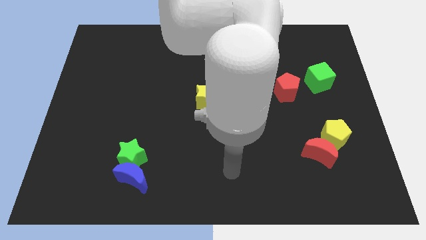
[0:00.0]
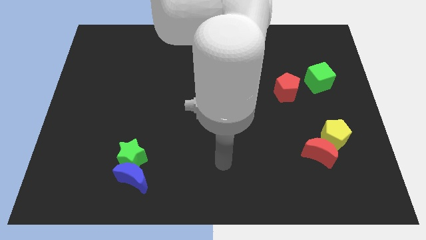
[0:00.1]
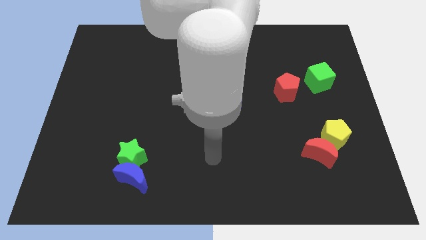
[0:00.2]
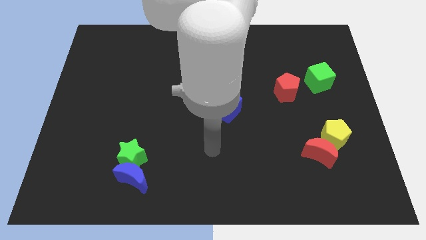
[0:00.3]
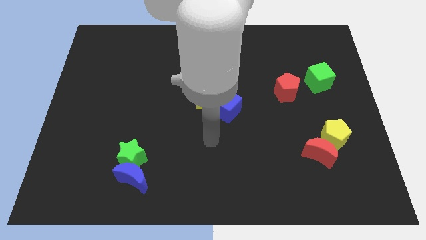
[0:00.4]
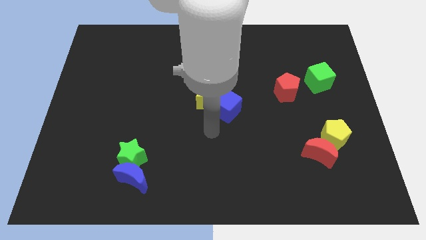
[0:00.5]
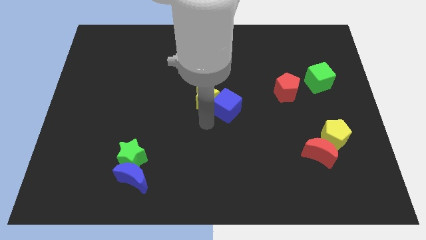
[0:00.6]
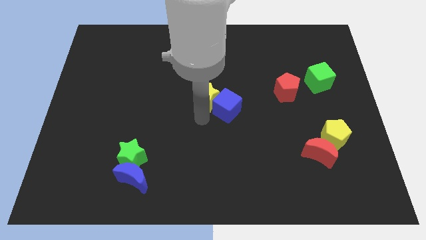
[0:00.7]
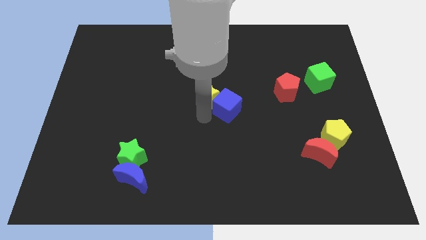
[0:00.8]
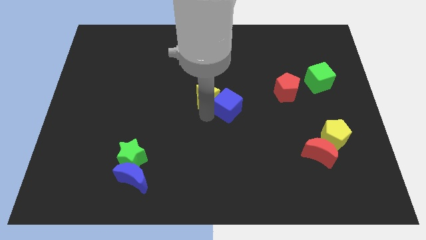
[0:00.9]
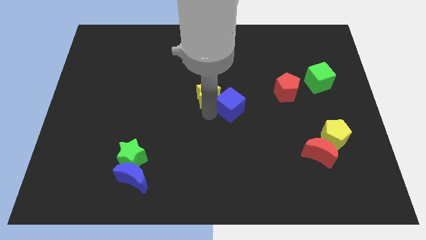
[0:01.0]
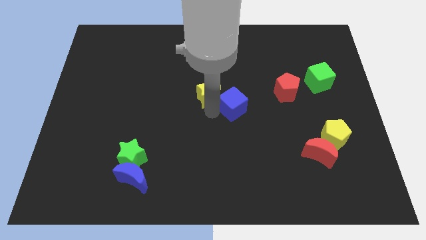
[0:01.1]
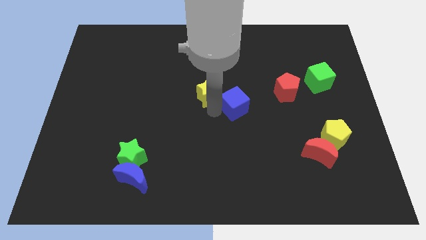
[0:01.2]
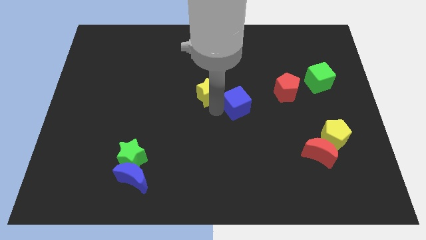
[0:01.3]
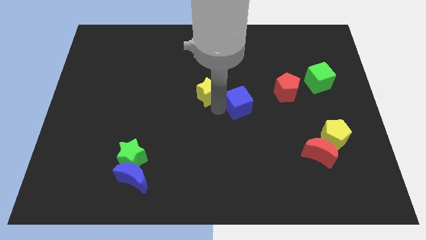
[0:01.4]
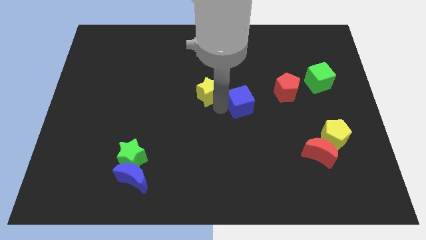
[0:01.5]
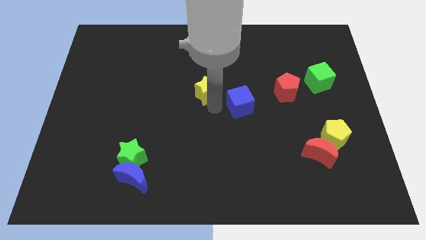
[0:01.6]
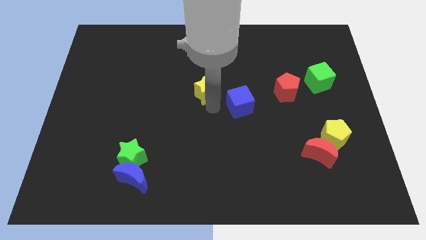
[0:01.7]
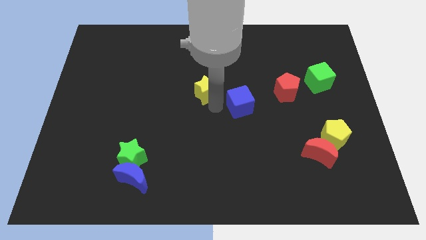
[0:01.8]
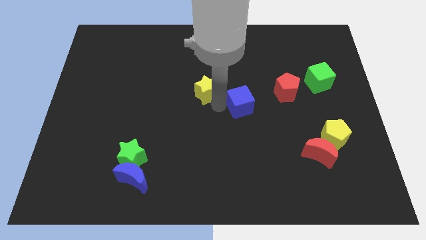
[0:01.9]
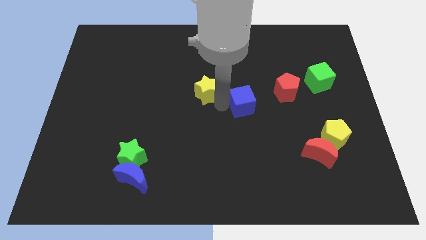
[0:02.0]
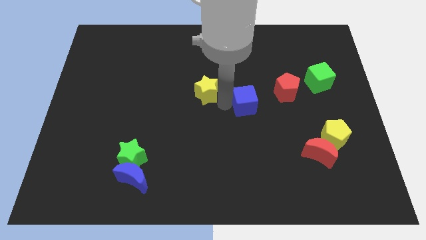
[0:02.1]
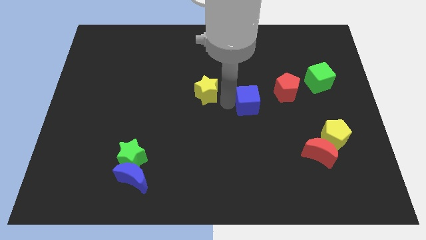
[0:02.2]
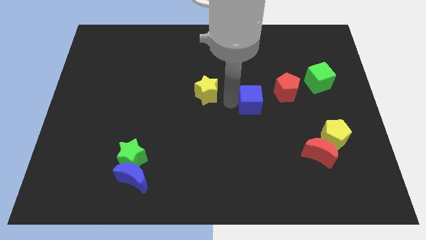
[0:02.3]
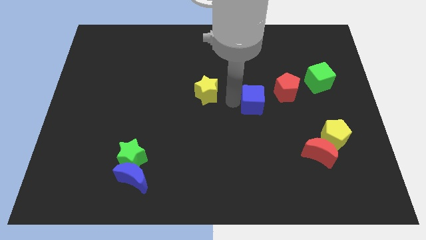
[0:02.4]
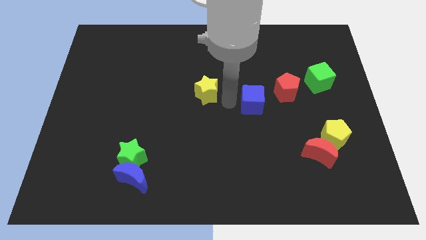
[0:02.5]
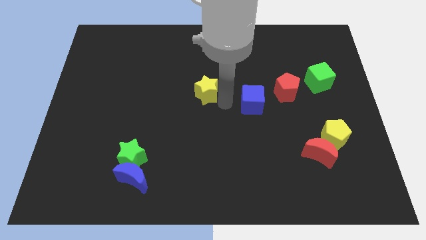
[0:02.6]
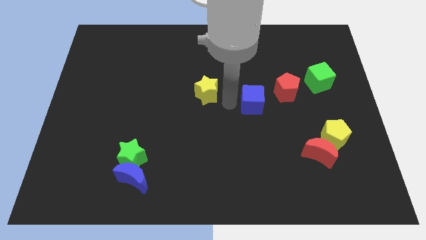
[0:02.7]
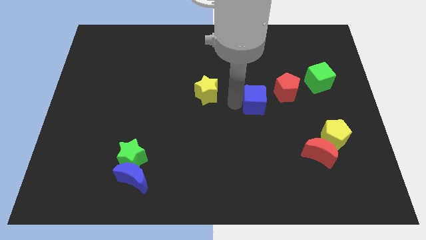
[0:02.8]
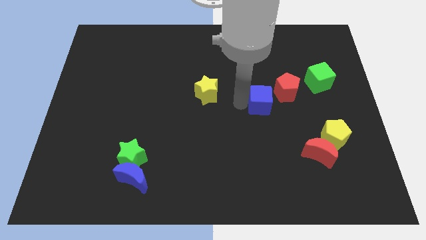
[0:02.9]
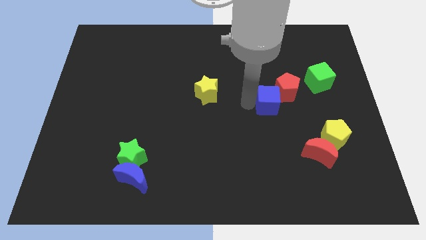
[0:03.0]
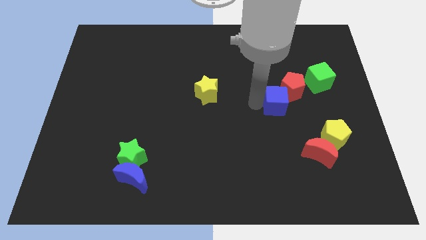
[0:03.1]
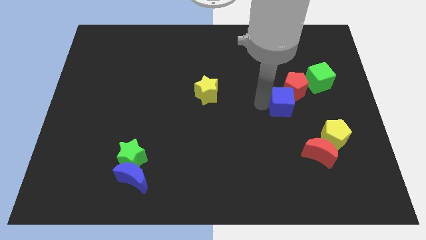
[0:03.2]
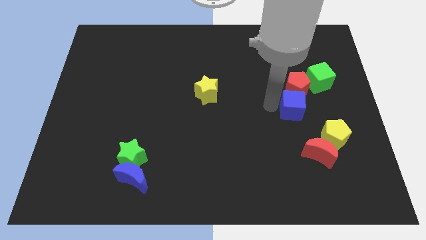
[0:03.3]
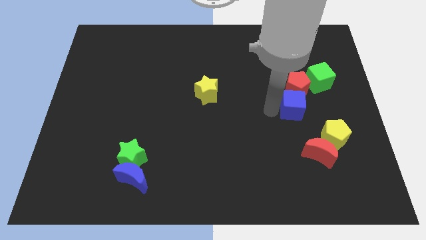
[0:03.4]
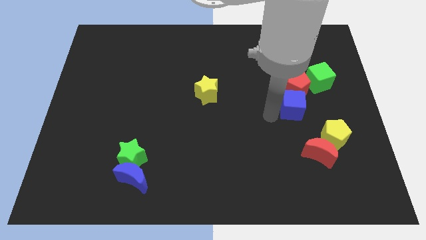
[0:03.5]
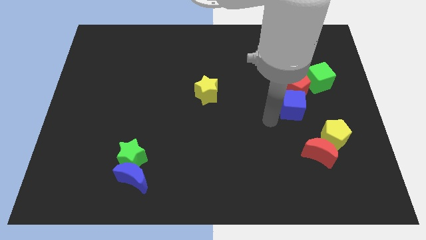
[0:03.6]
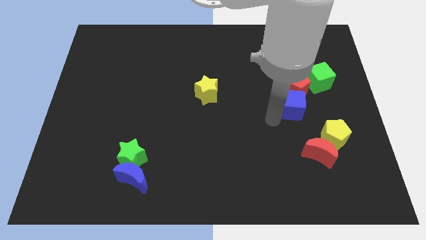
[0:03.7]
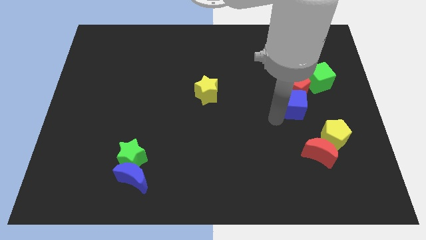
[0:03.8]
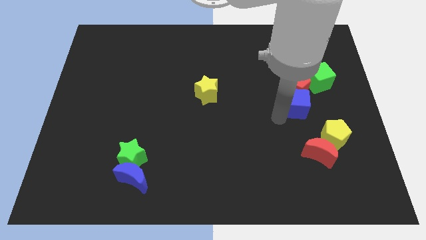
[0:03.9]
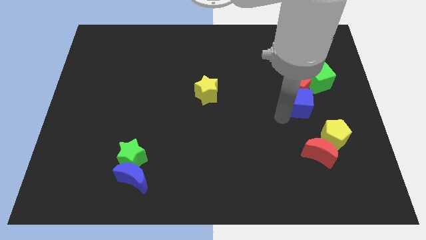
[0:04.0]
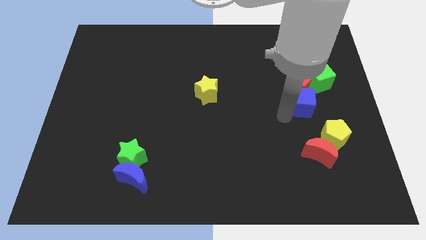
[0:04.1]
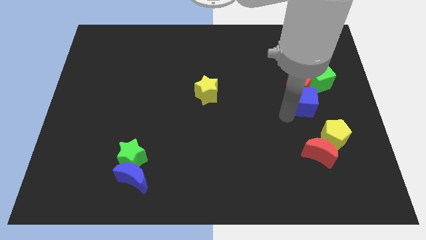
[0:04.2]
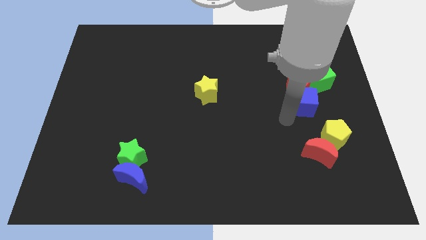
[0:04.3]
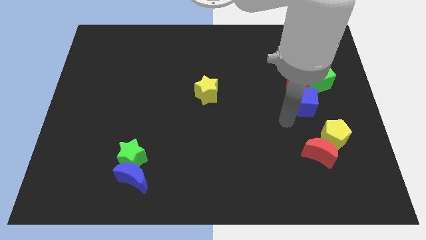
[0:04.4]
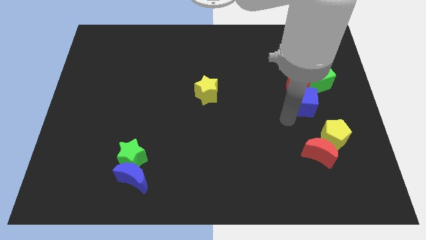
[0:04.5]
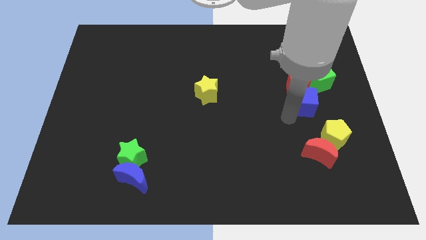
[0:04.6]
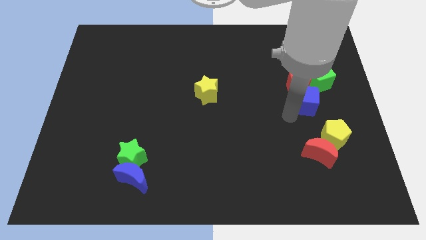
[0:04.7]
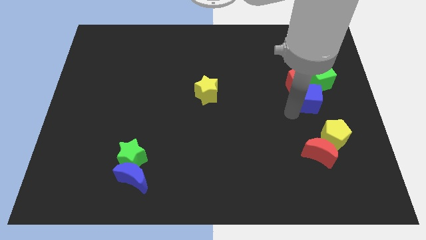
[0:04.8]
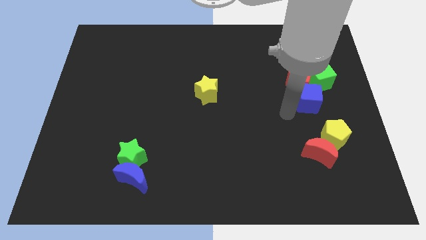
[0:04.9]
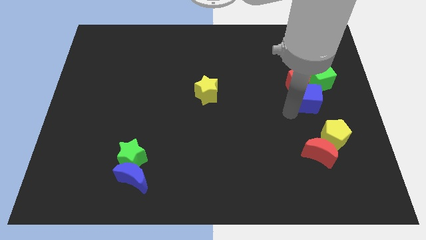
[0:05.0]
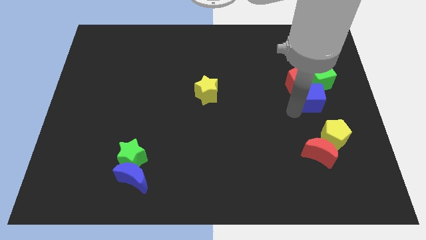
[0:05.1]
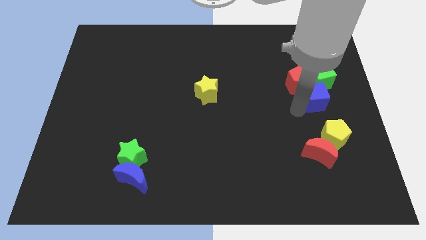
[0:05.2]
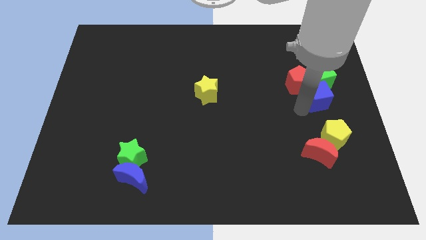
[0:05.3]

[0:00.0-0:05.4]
slide the blue cube to the right of the red pentagon

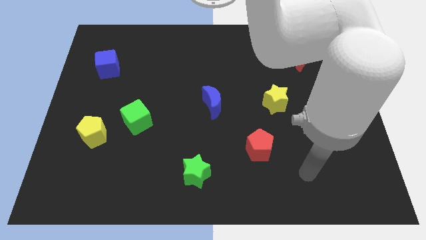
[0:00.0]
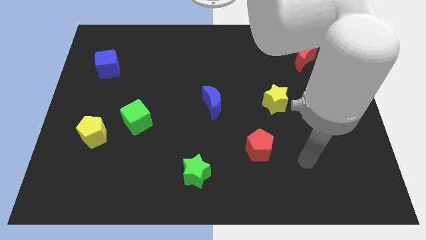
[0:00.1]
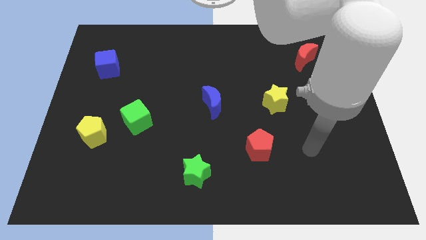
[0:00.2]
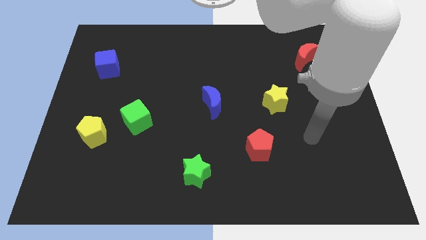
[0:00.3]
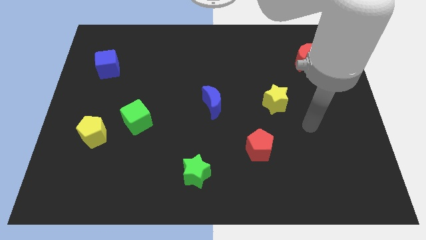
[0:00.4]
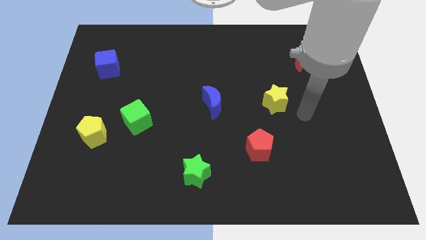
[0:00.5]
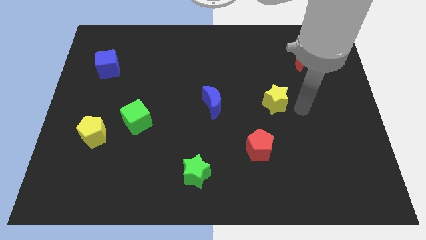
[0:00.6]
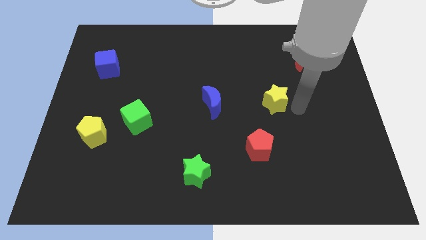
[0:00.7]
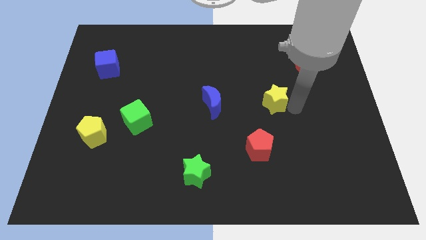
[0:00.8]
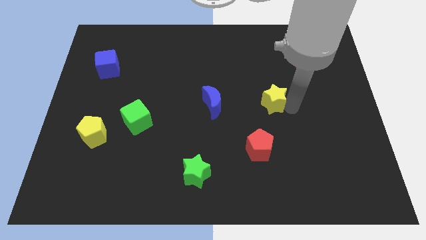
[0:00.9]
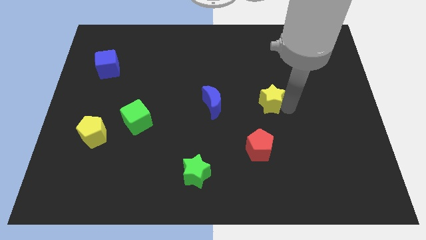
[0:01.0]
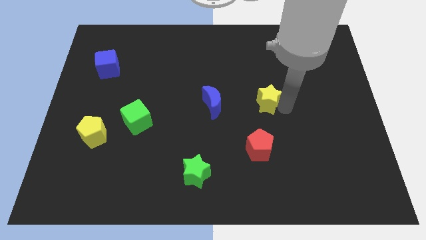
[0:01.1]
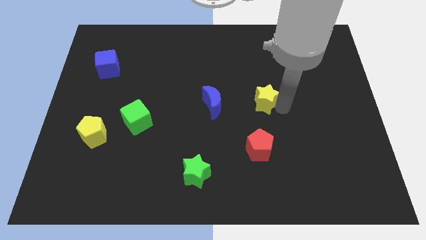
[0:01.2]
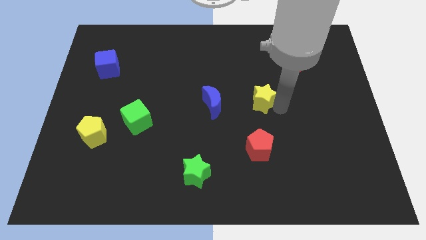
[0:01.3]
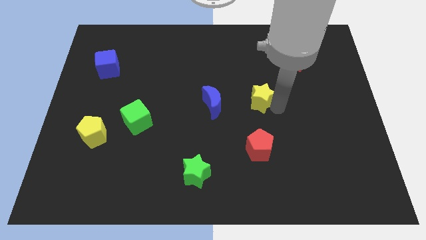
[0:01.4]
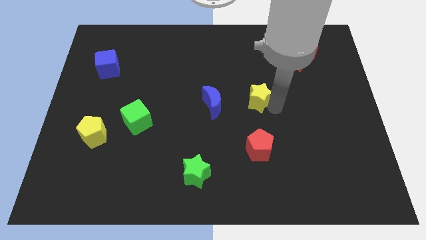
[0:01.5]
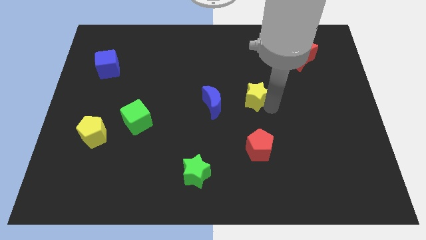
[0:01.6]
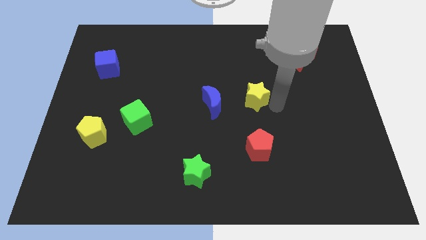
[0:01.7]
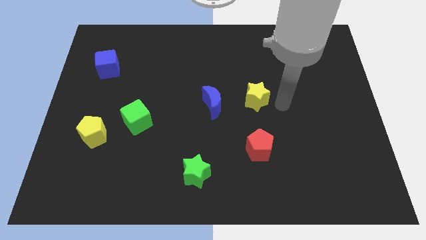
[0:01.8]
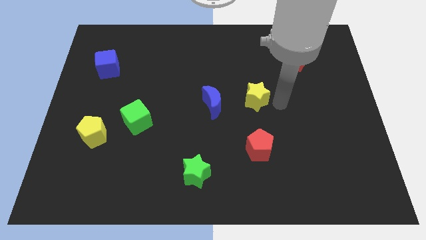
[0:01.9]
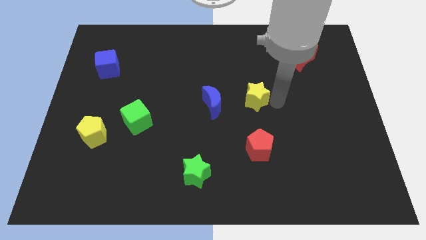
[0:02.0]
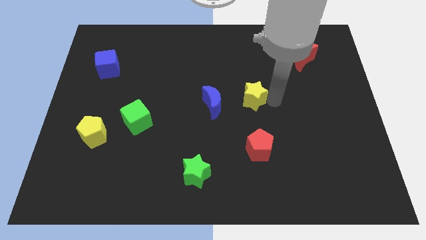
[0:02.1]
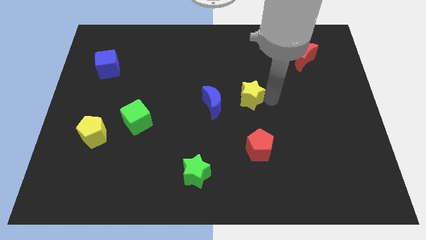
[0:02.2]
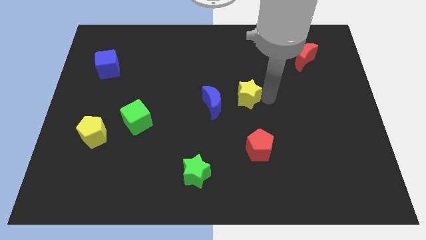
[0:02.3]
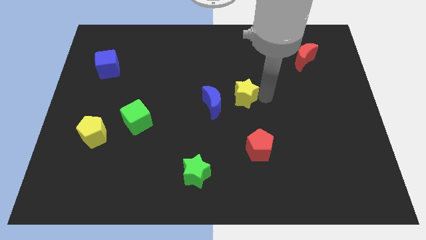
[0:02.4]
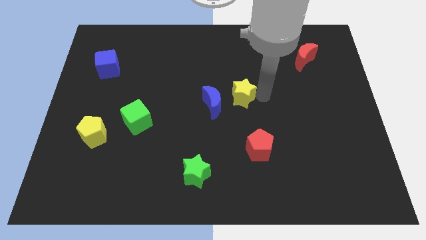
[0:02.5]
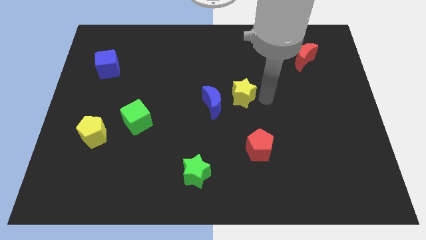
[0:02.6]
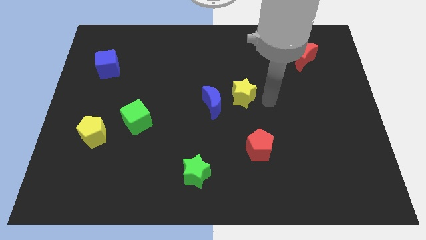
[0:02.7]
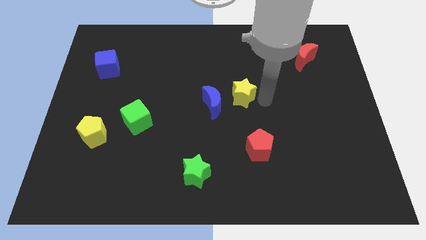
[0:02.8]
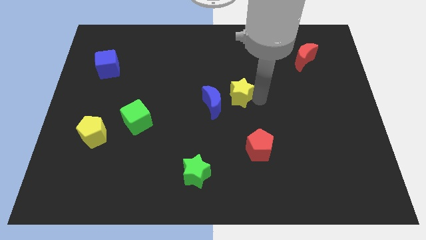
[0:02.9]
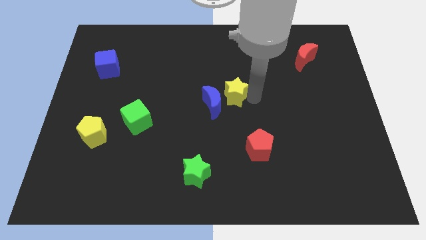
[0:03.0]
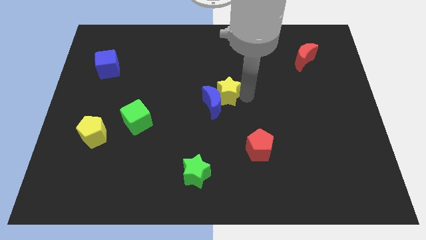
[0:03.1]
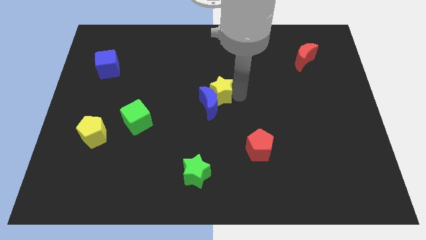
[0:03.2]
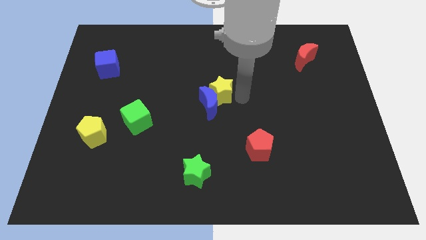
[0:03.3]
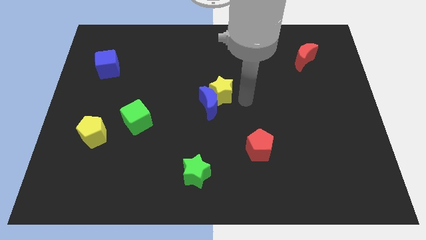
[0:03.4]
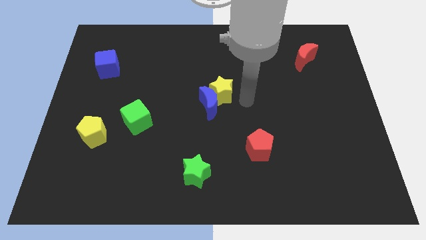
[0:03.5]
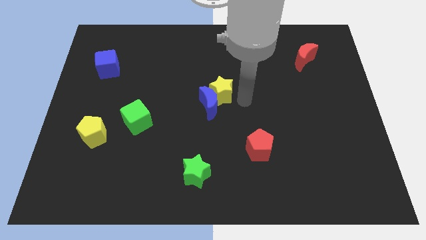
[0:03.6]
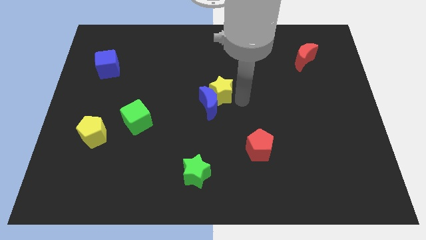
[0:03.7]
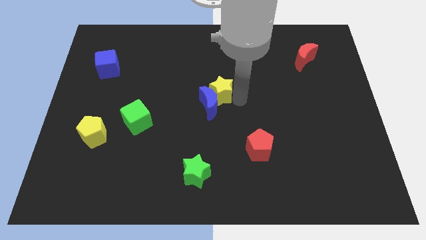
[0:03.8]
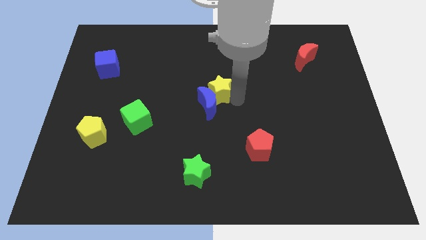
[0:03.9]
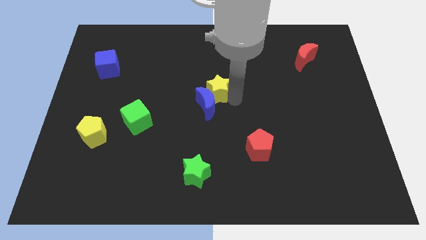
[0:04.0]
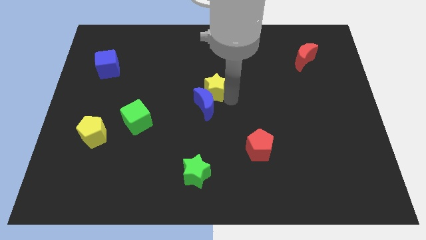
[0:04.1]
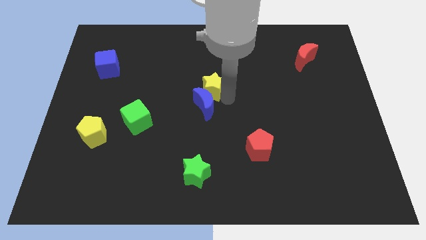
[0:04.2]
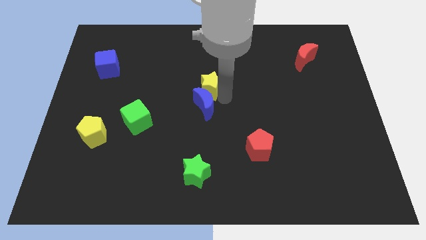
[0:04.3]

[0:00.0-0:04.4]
move the yellow star diagonally up and to the left of the blue moon
